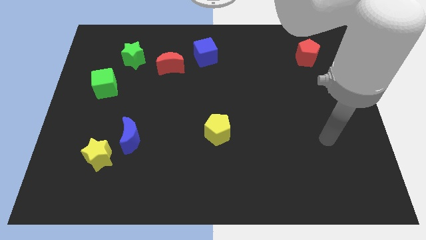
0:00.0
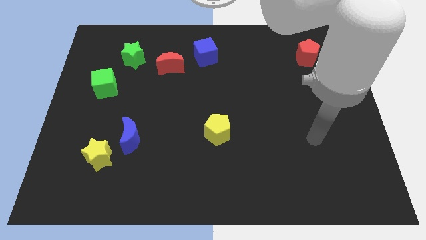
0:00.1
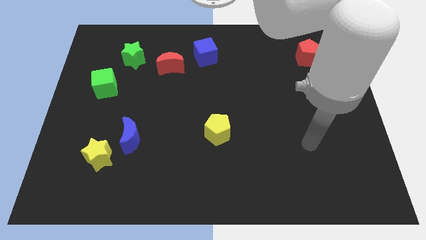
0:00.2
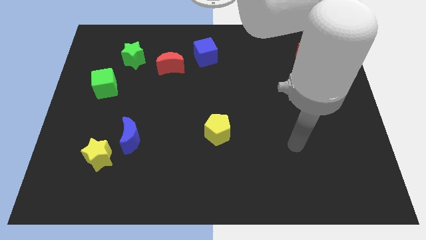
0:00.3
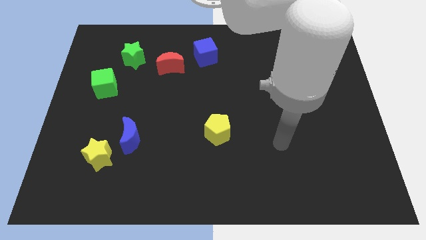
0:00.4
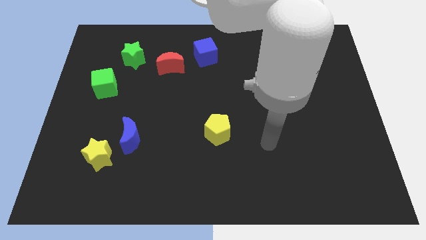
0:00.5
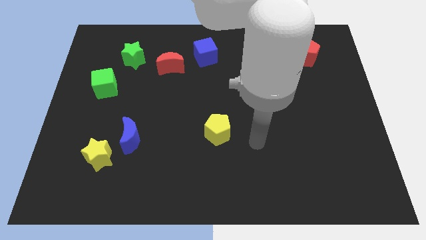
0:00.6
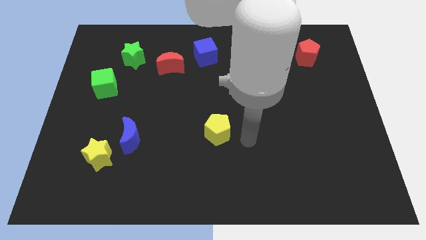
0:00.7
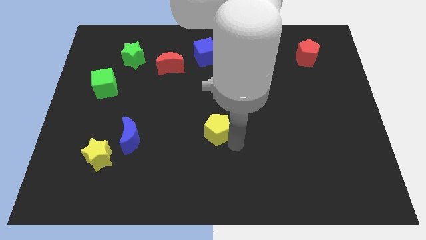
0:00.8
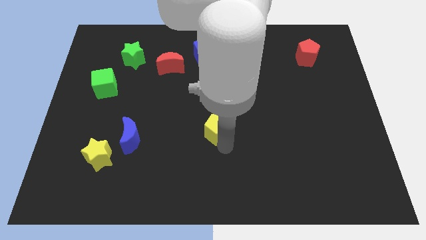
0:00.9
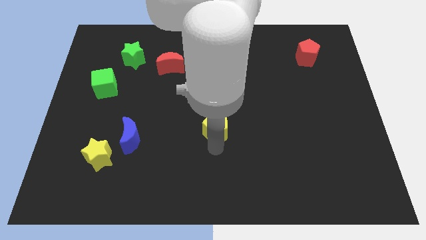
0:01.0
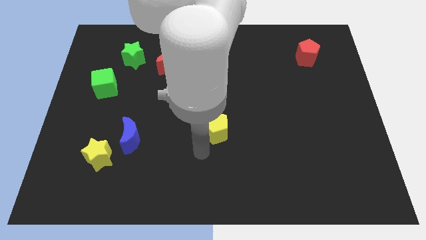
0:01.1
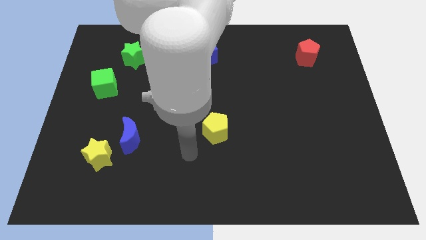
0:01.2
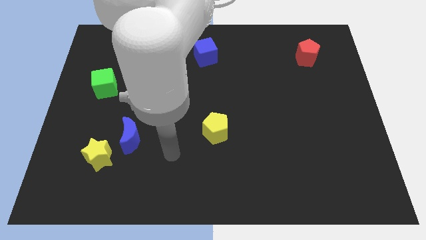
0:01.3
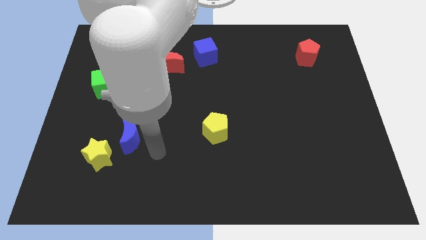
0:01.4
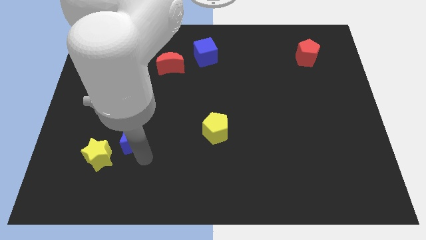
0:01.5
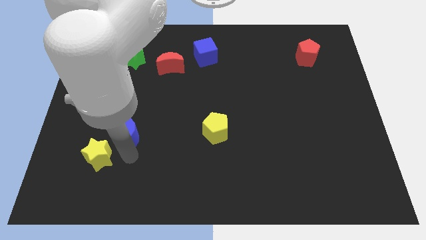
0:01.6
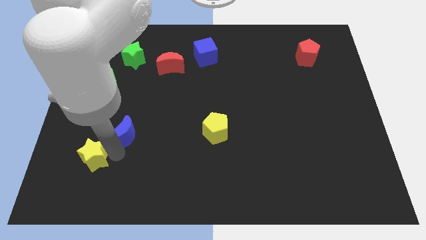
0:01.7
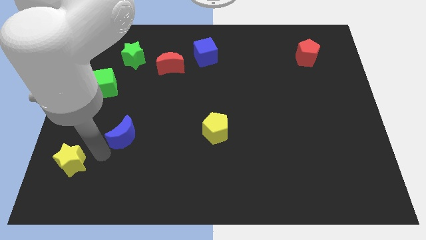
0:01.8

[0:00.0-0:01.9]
separate the blue moon from the yellow star

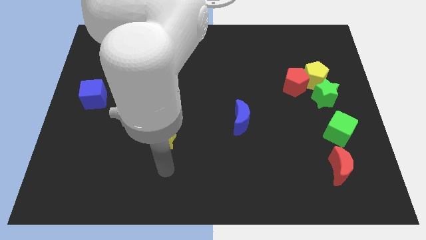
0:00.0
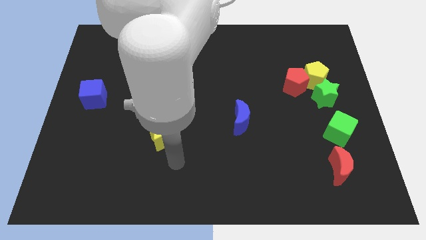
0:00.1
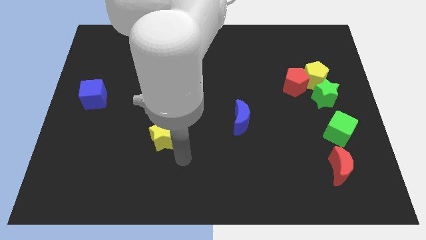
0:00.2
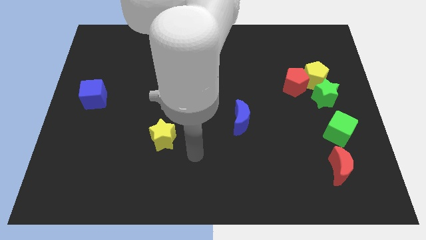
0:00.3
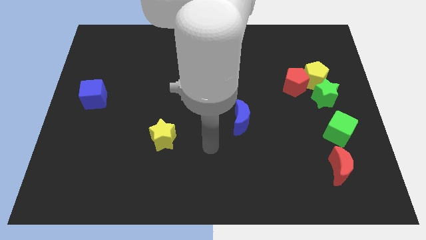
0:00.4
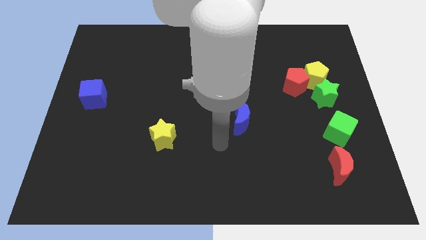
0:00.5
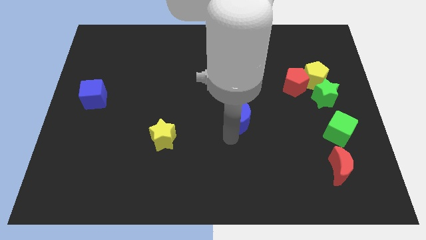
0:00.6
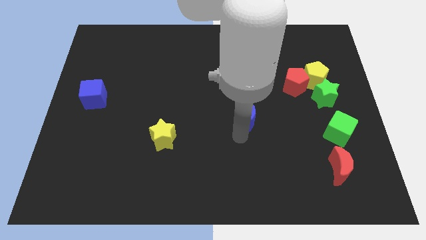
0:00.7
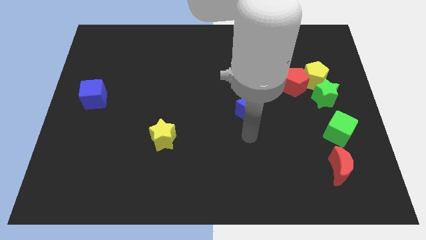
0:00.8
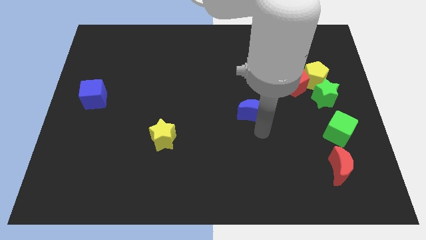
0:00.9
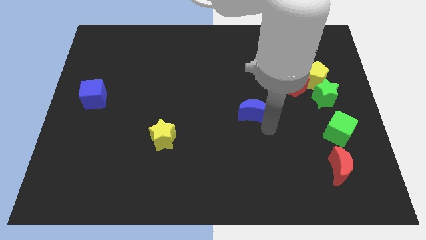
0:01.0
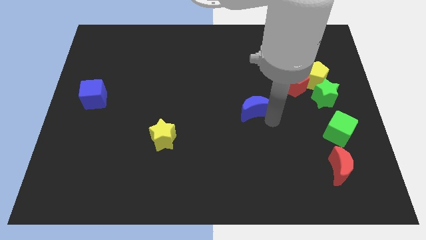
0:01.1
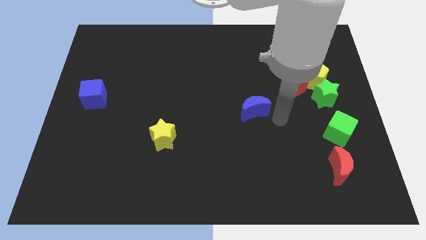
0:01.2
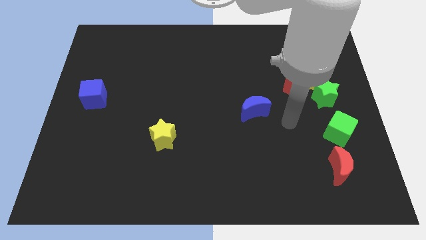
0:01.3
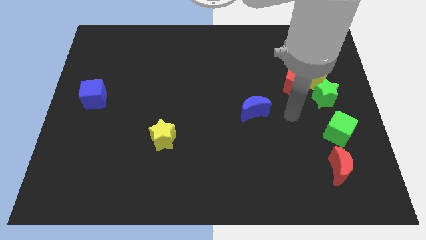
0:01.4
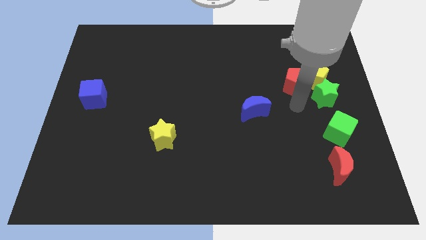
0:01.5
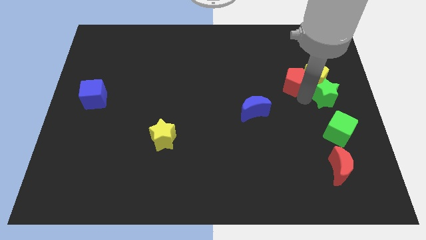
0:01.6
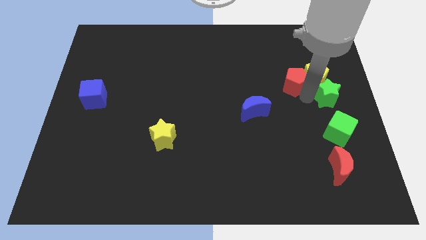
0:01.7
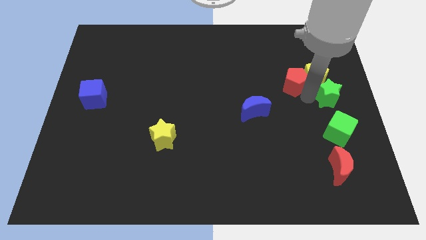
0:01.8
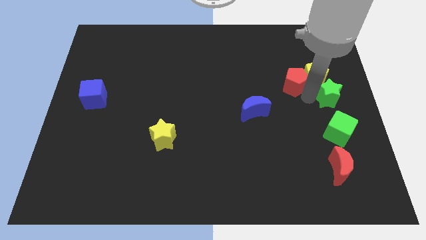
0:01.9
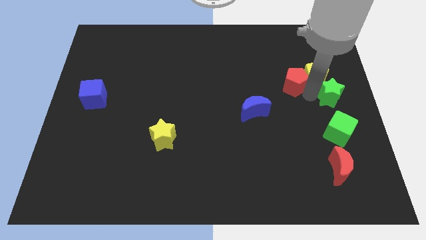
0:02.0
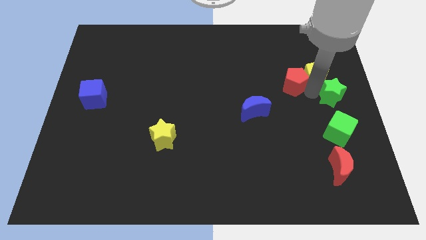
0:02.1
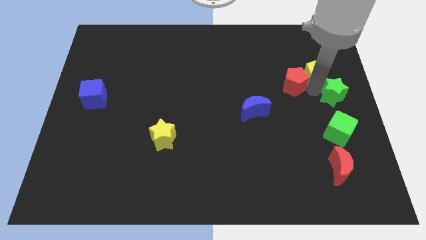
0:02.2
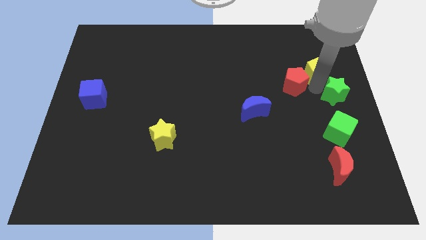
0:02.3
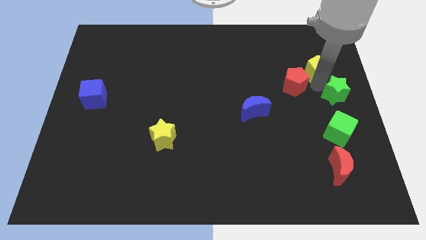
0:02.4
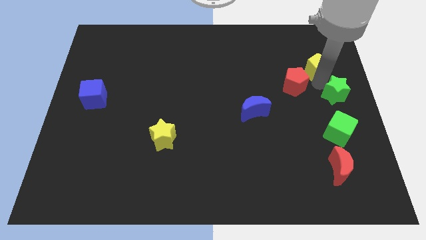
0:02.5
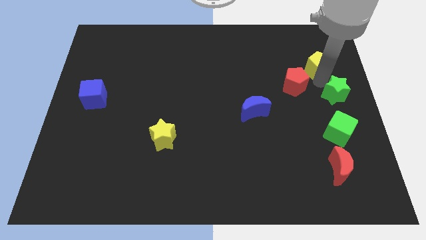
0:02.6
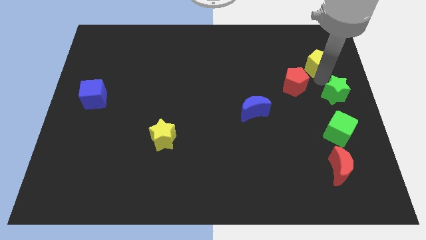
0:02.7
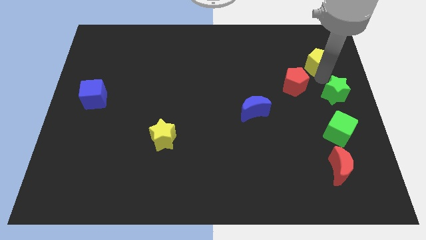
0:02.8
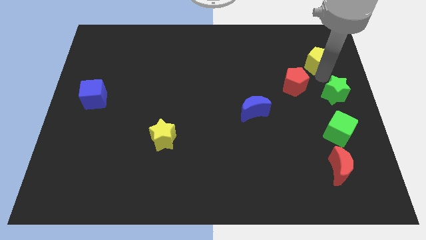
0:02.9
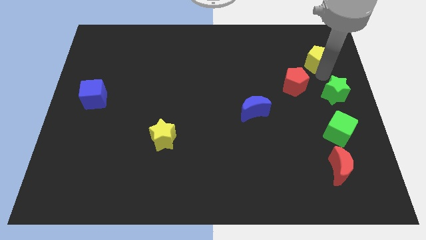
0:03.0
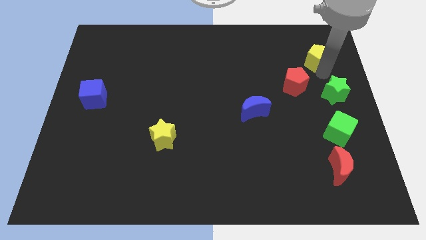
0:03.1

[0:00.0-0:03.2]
pull the yellow pentagon apart from the red pentagon and green star

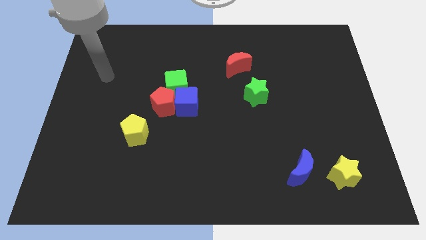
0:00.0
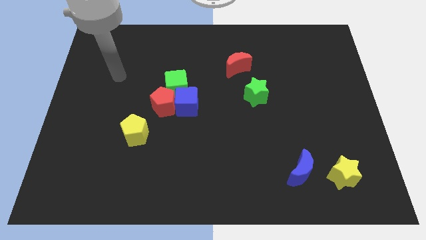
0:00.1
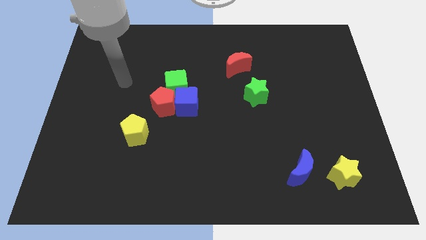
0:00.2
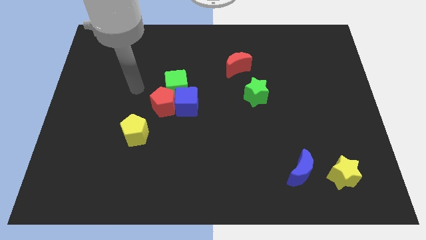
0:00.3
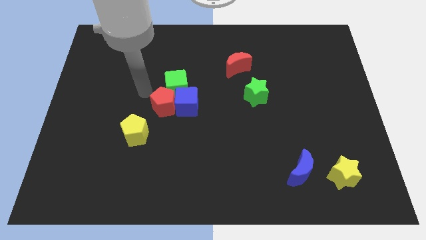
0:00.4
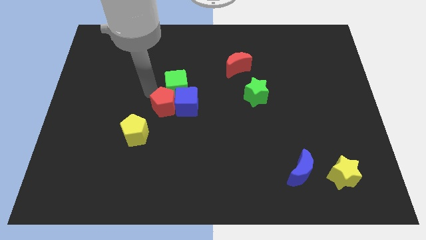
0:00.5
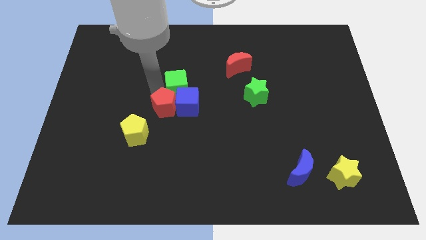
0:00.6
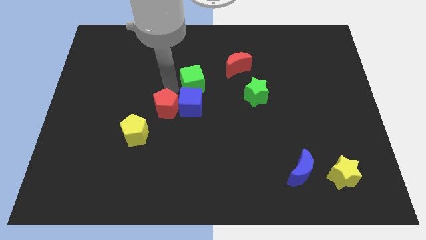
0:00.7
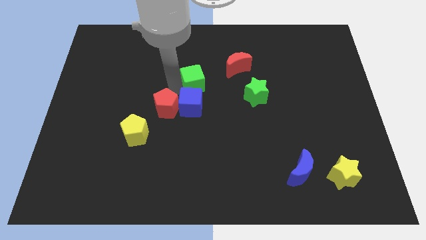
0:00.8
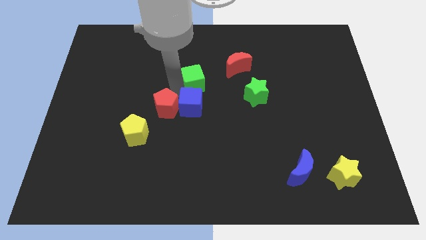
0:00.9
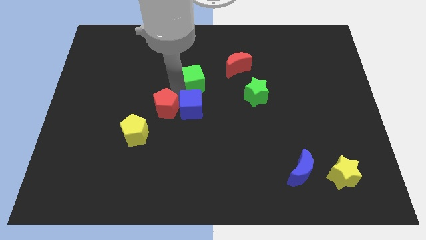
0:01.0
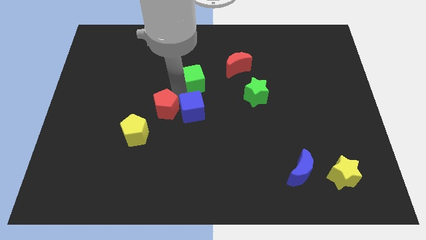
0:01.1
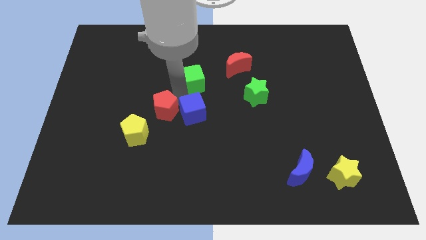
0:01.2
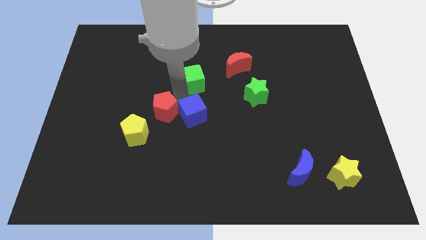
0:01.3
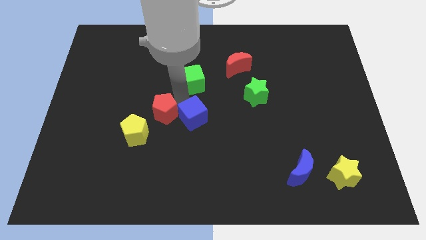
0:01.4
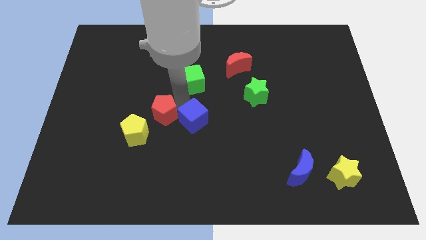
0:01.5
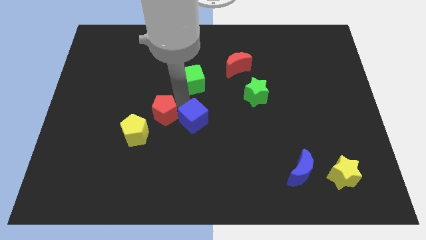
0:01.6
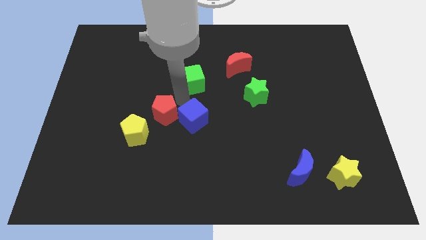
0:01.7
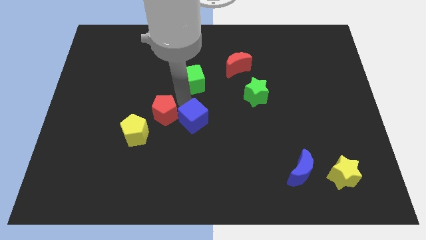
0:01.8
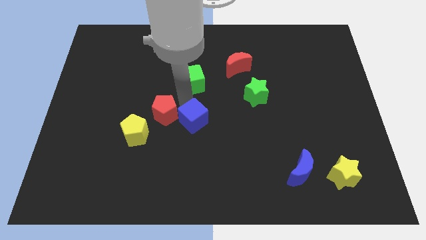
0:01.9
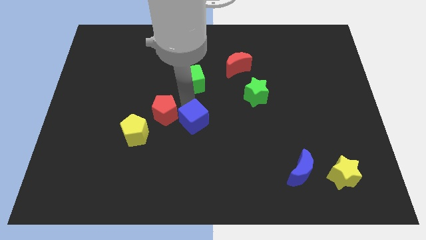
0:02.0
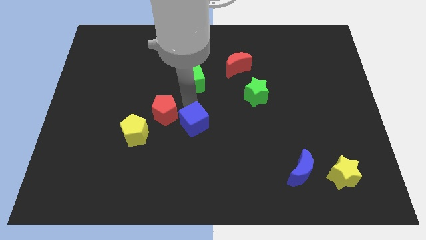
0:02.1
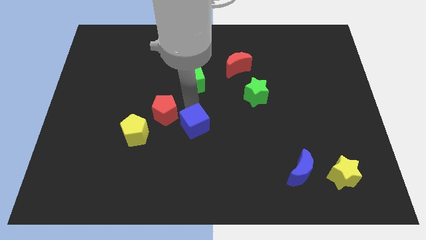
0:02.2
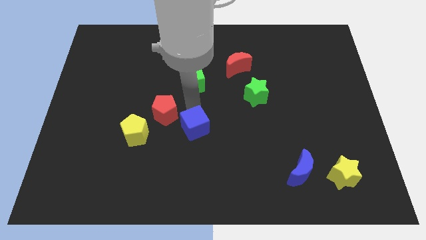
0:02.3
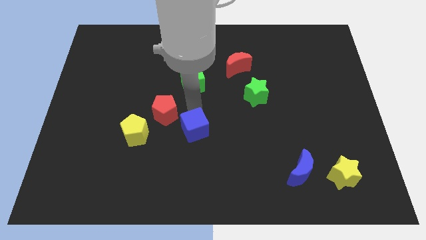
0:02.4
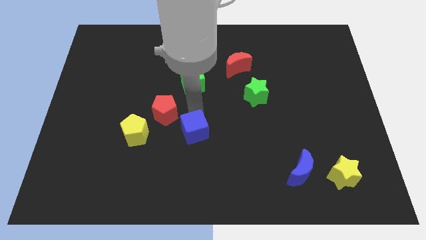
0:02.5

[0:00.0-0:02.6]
move the blue cube away from the red pentagon and green cube

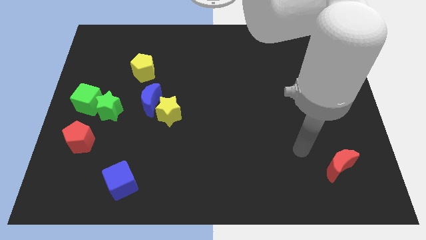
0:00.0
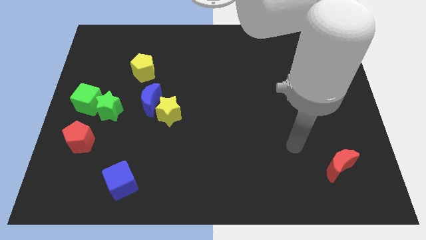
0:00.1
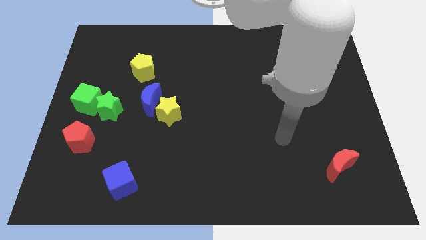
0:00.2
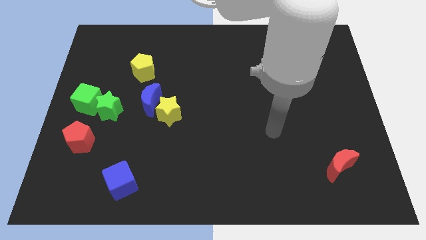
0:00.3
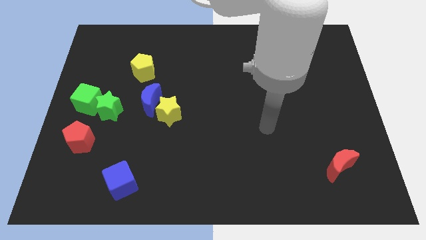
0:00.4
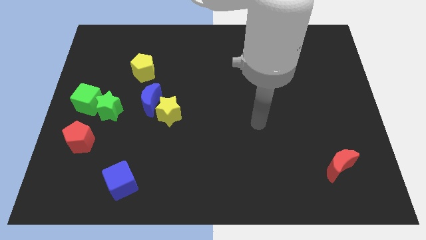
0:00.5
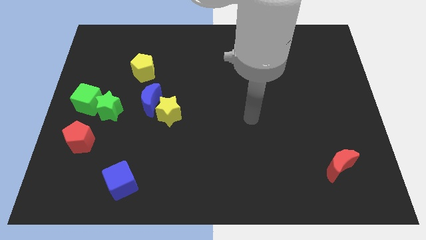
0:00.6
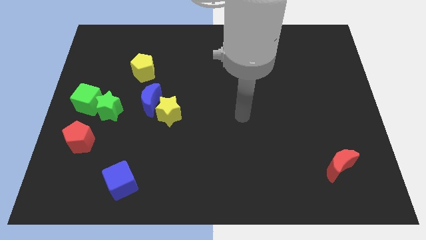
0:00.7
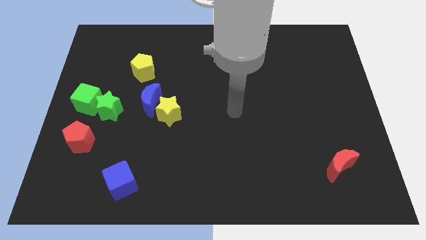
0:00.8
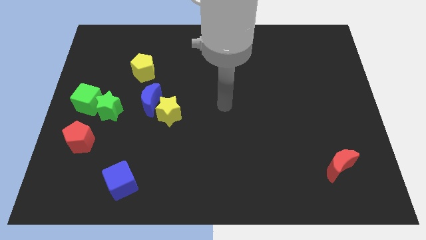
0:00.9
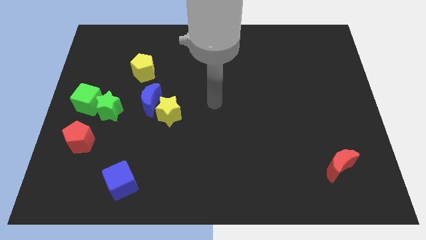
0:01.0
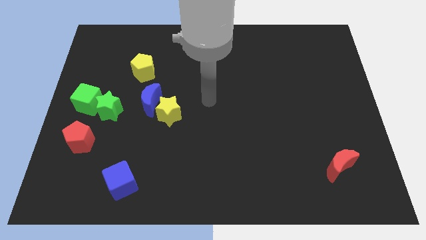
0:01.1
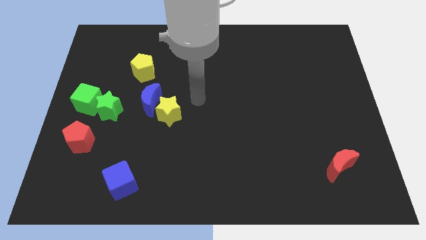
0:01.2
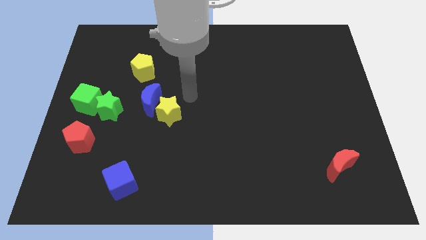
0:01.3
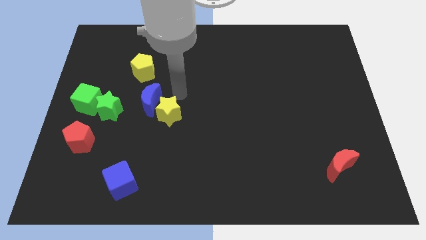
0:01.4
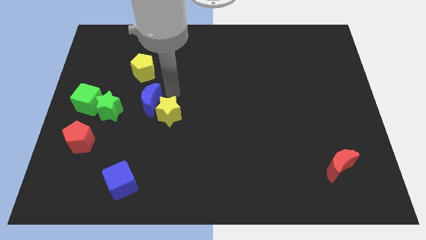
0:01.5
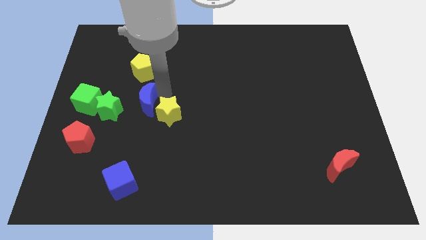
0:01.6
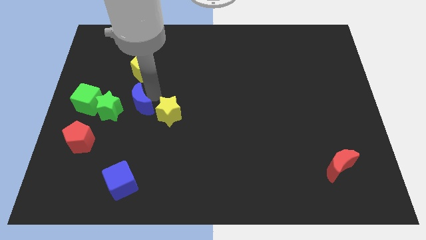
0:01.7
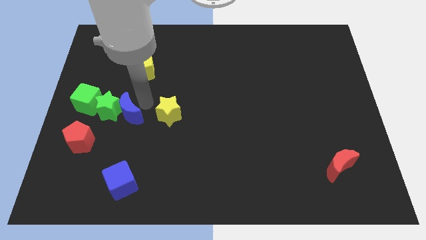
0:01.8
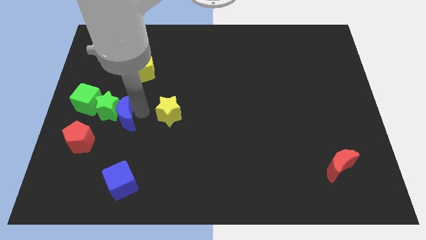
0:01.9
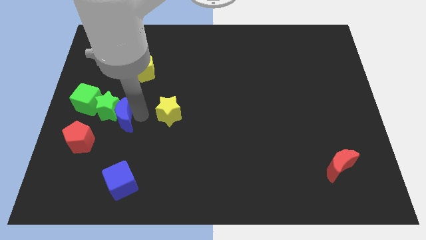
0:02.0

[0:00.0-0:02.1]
move the yellow star away from the blue moon
